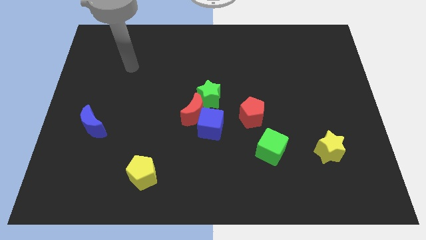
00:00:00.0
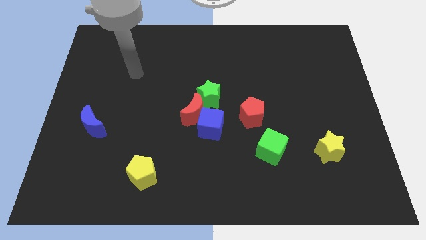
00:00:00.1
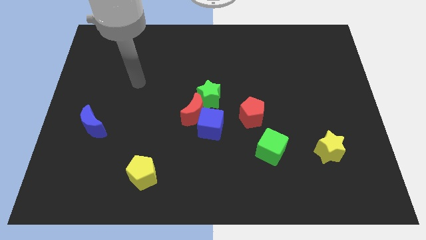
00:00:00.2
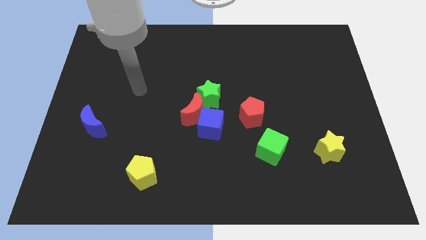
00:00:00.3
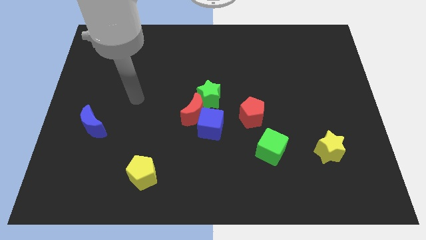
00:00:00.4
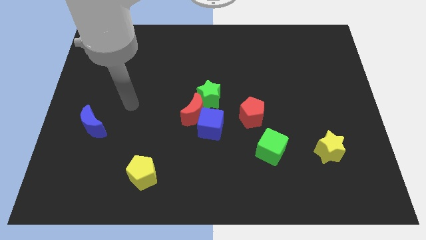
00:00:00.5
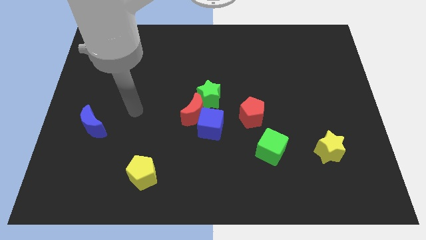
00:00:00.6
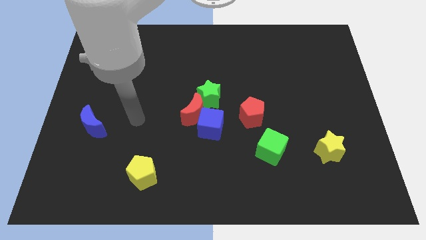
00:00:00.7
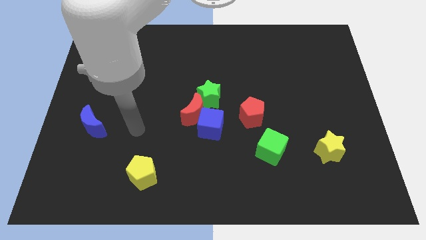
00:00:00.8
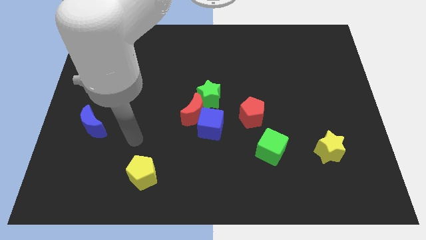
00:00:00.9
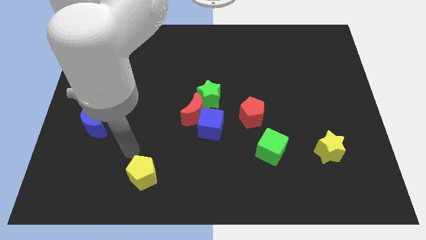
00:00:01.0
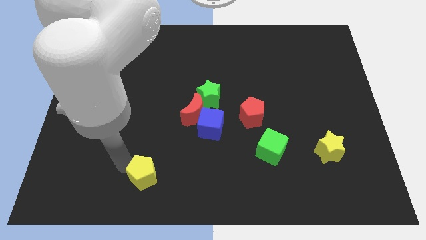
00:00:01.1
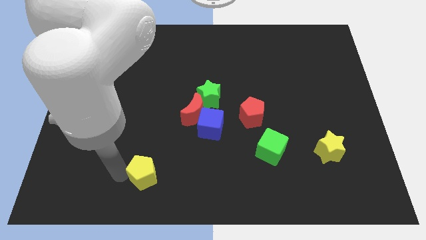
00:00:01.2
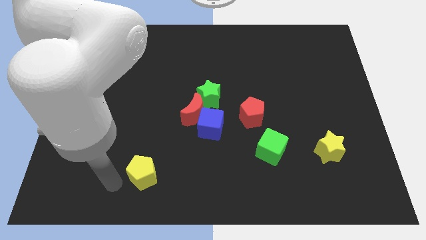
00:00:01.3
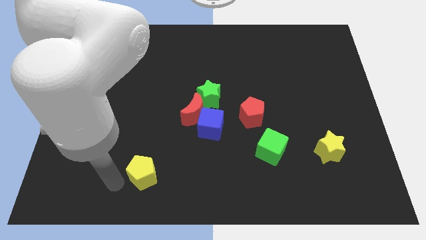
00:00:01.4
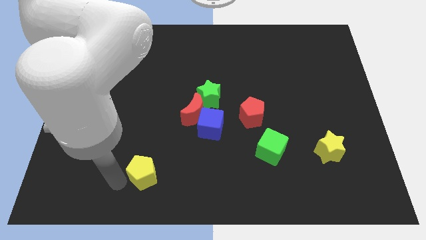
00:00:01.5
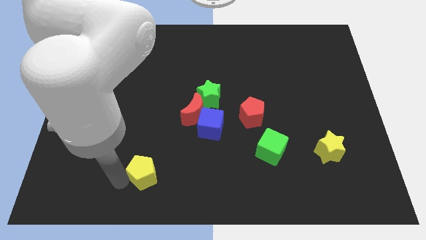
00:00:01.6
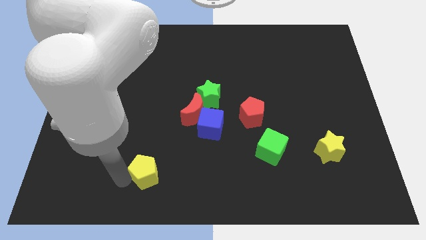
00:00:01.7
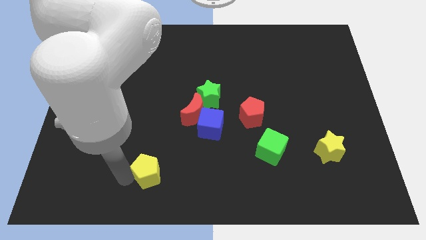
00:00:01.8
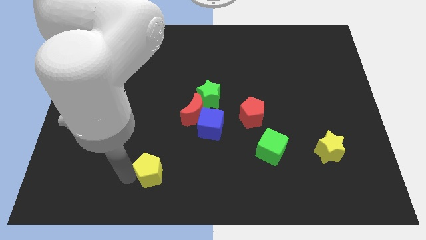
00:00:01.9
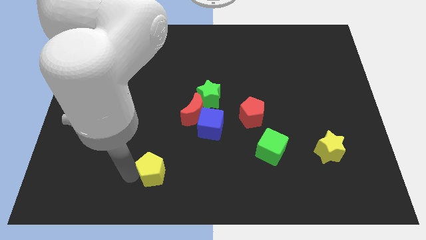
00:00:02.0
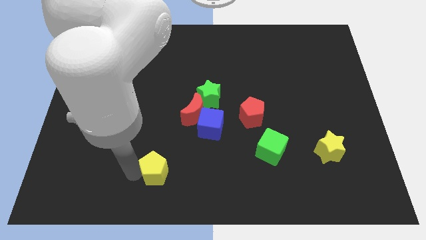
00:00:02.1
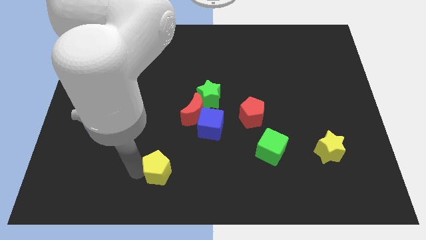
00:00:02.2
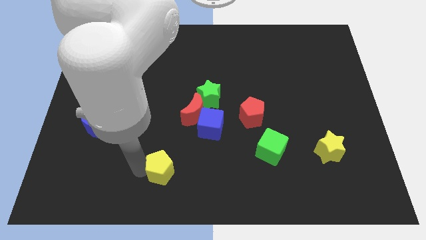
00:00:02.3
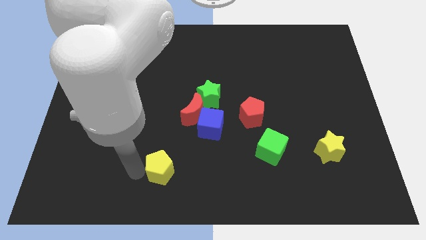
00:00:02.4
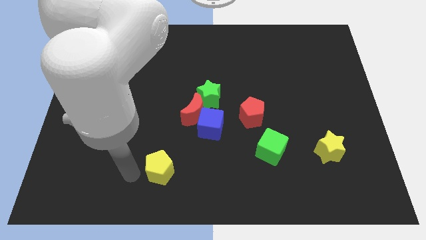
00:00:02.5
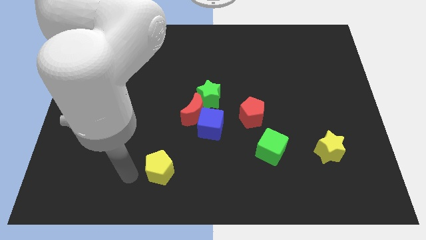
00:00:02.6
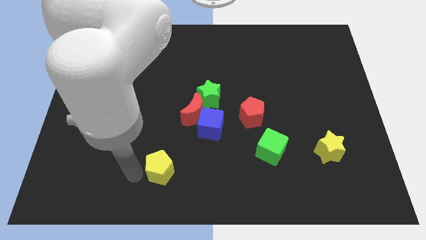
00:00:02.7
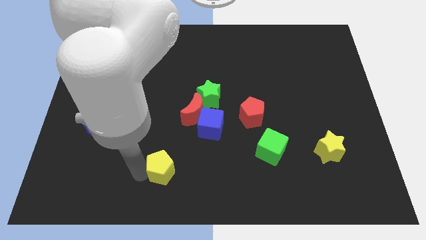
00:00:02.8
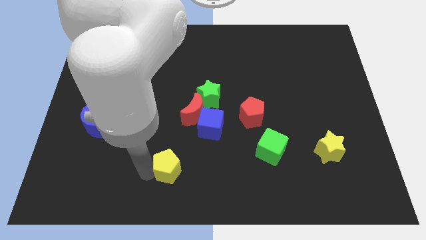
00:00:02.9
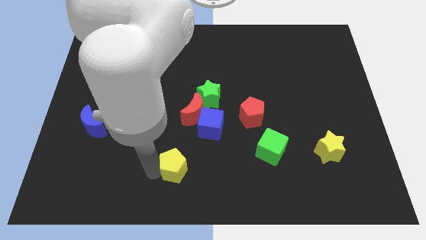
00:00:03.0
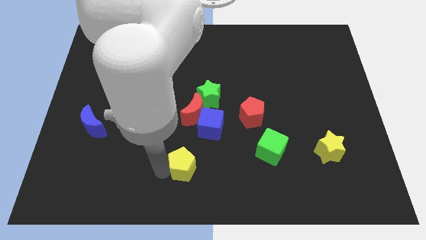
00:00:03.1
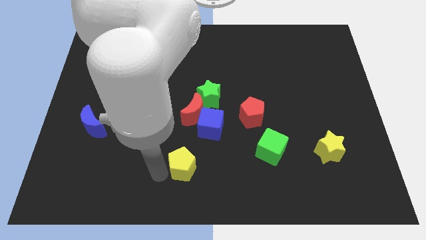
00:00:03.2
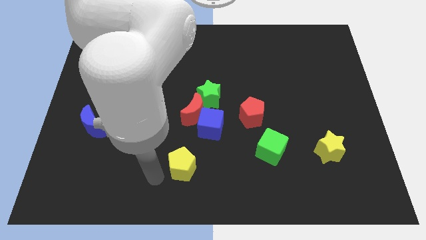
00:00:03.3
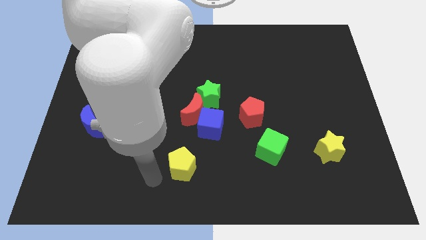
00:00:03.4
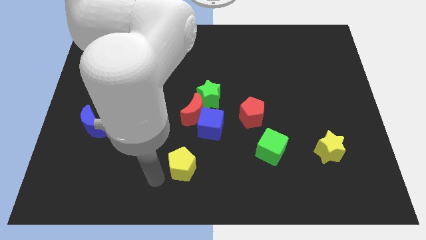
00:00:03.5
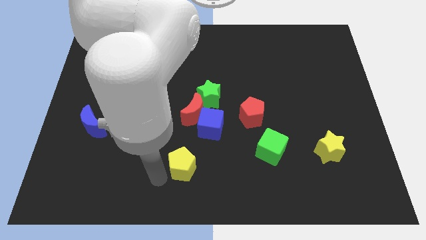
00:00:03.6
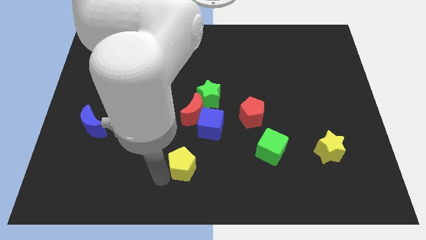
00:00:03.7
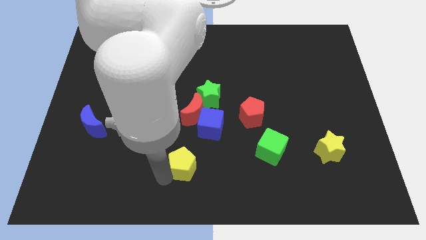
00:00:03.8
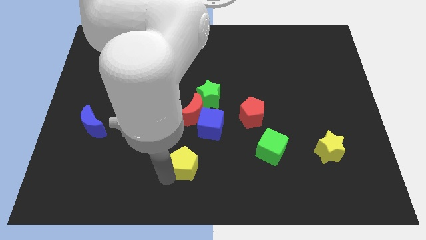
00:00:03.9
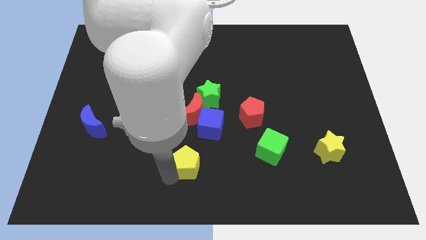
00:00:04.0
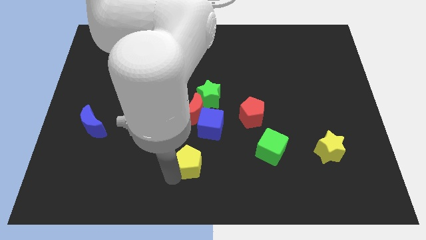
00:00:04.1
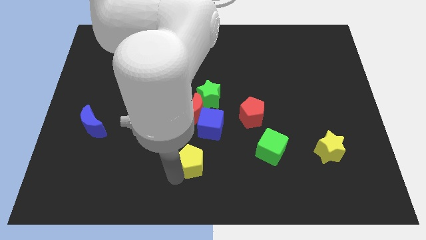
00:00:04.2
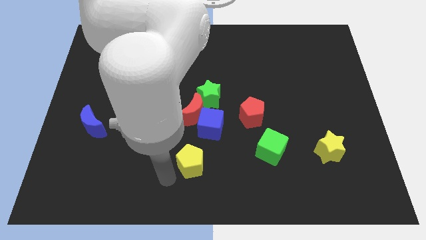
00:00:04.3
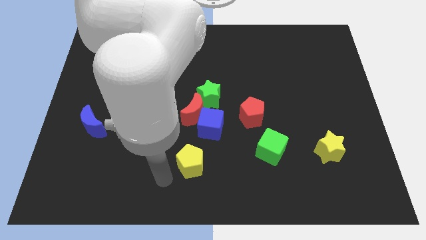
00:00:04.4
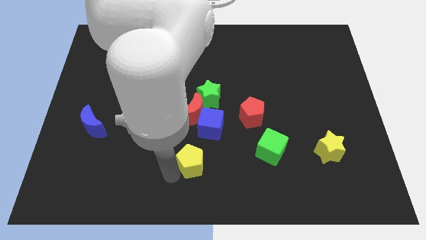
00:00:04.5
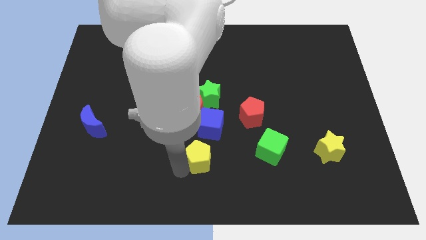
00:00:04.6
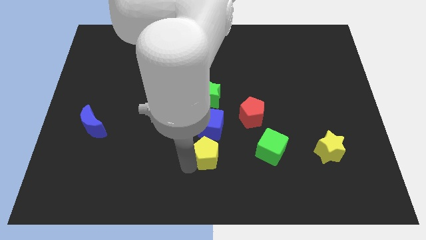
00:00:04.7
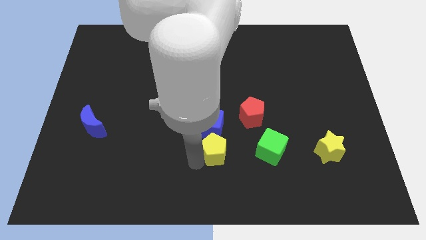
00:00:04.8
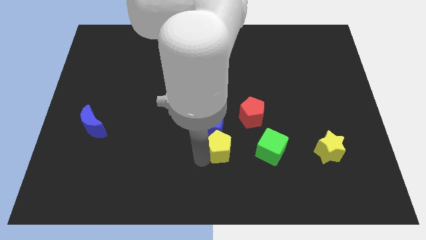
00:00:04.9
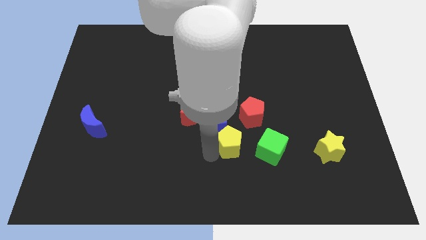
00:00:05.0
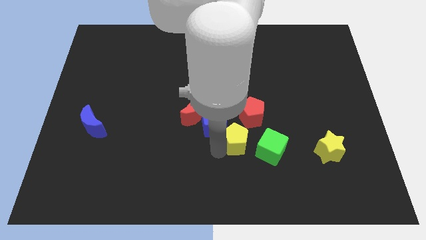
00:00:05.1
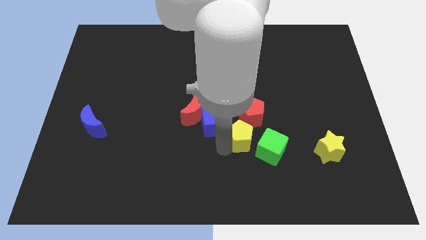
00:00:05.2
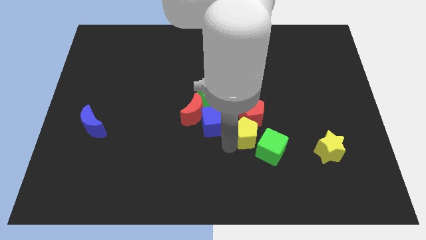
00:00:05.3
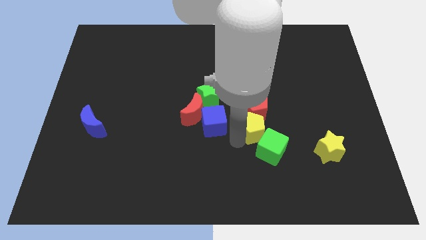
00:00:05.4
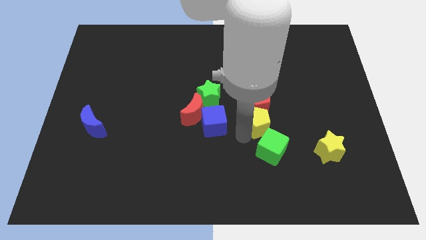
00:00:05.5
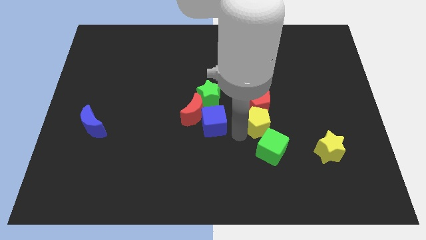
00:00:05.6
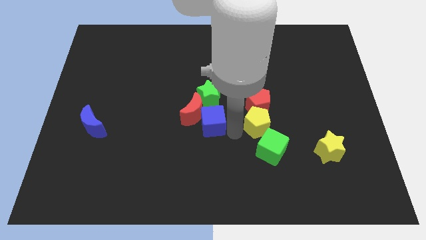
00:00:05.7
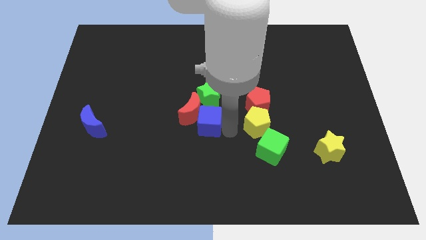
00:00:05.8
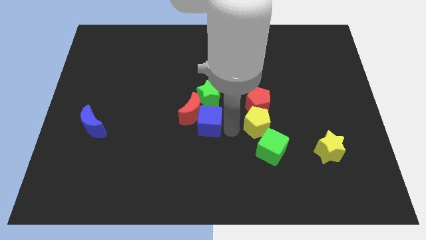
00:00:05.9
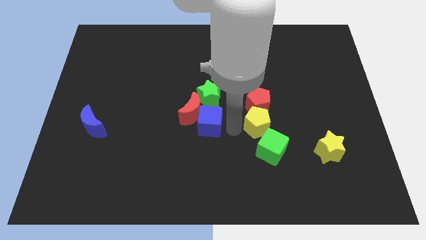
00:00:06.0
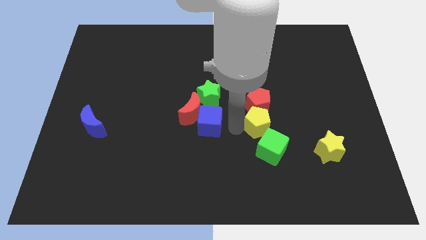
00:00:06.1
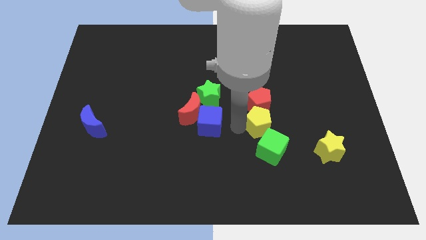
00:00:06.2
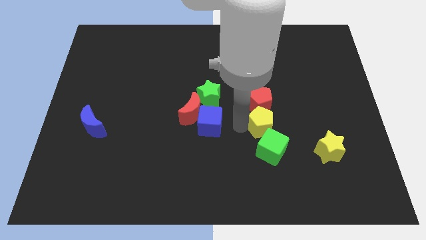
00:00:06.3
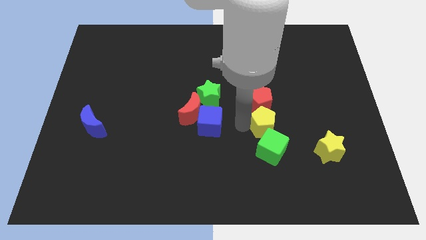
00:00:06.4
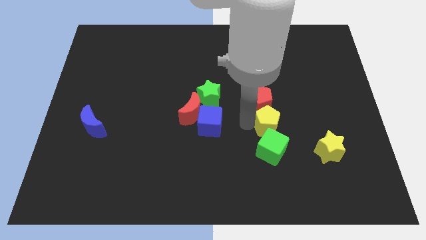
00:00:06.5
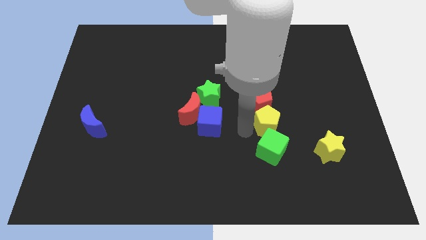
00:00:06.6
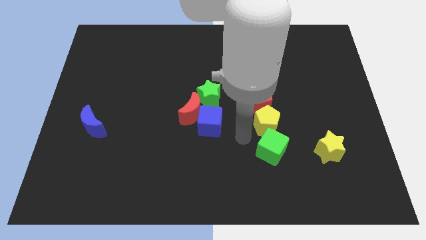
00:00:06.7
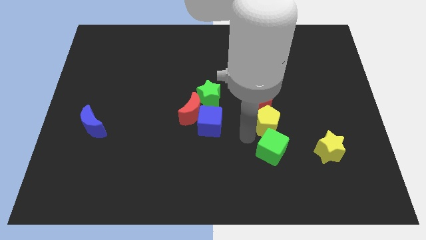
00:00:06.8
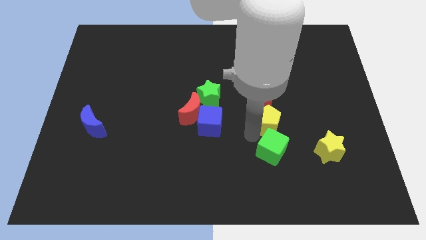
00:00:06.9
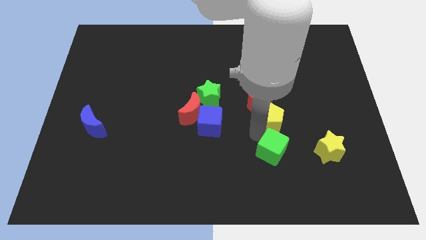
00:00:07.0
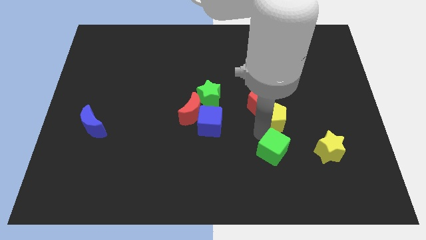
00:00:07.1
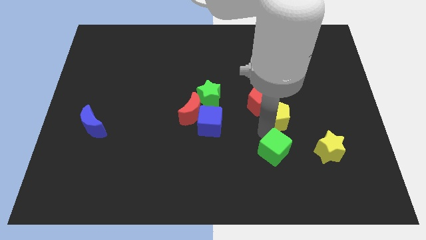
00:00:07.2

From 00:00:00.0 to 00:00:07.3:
put the yellow pentagon to the right of the red pentagon
